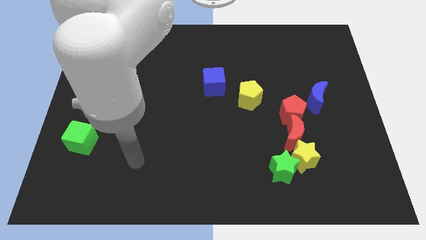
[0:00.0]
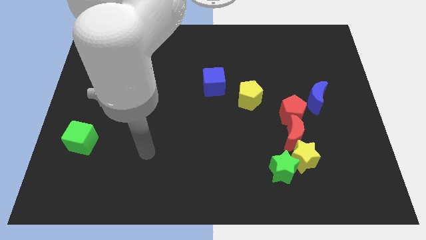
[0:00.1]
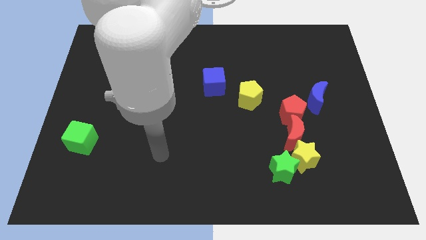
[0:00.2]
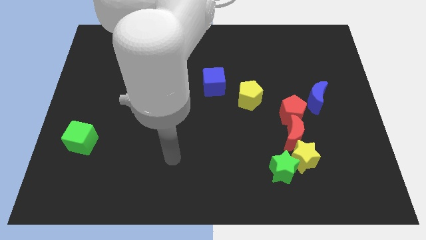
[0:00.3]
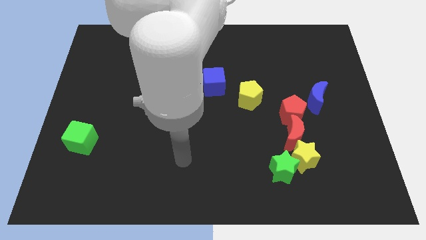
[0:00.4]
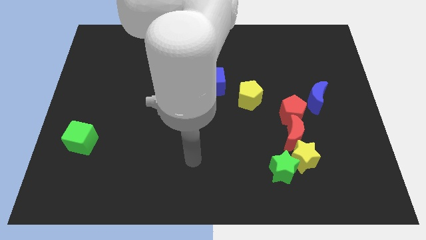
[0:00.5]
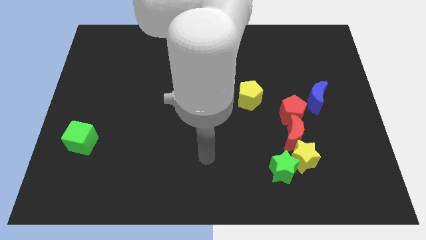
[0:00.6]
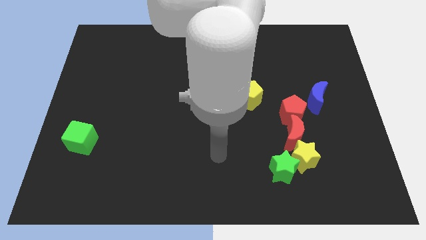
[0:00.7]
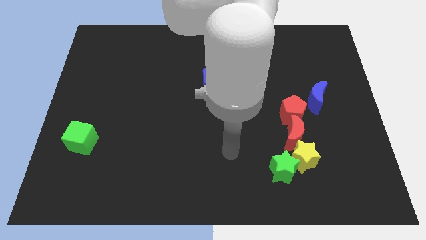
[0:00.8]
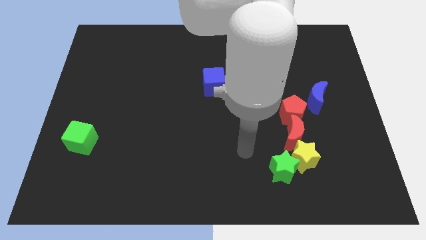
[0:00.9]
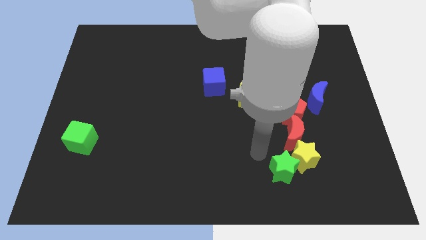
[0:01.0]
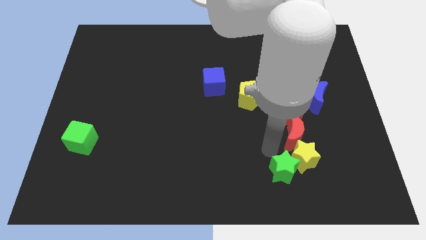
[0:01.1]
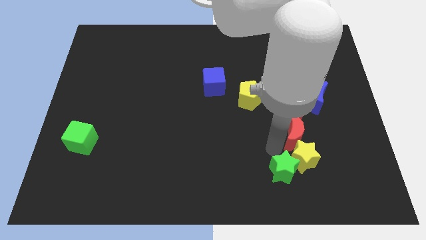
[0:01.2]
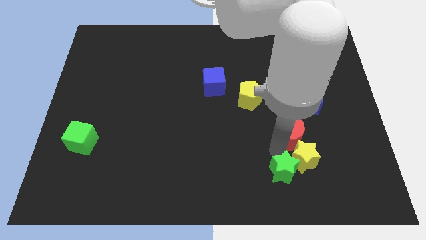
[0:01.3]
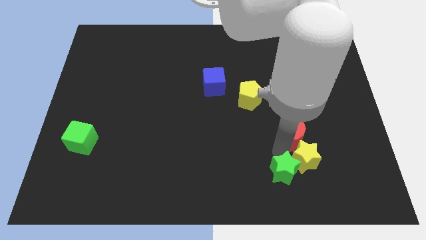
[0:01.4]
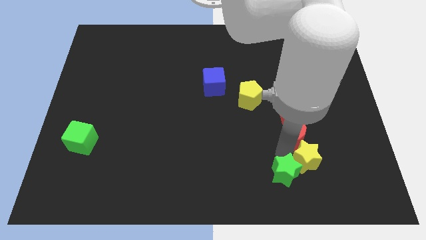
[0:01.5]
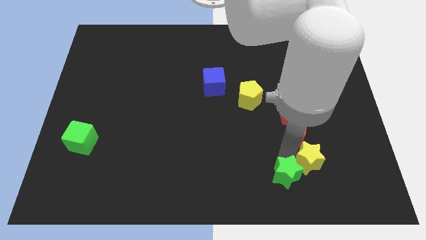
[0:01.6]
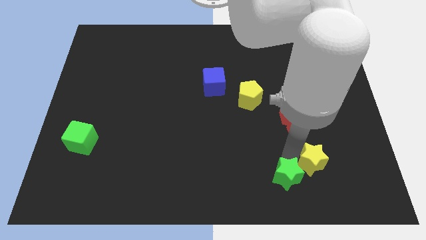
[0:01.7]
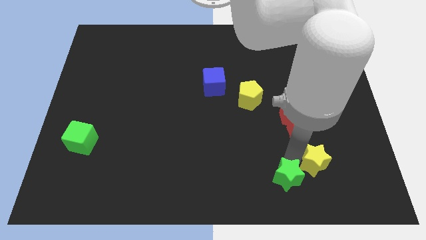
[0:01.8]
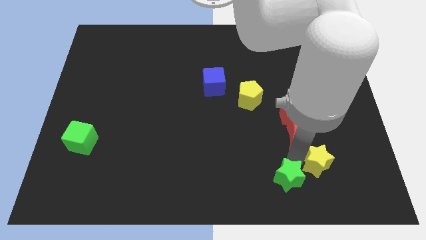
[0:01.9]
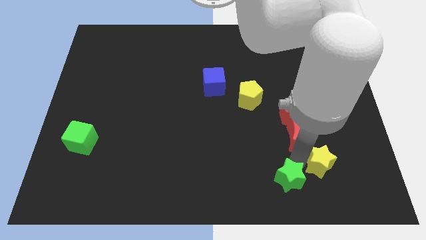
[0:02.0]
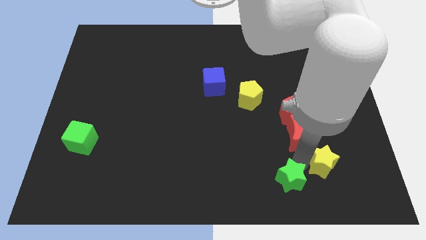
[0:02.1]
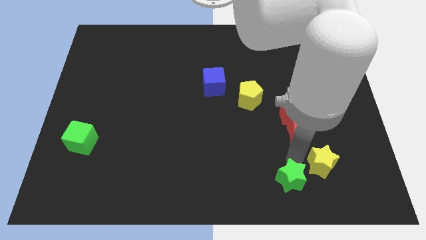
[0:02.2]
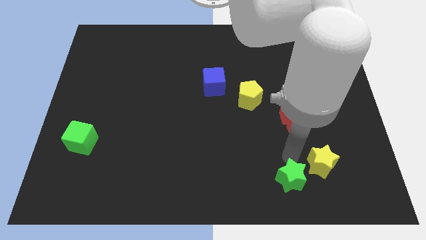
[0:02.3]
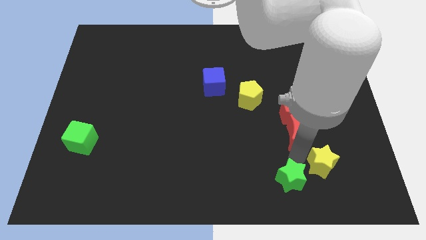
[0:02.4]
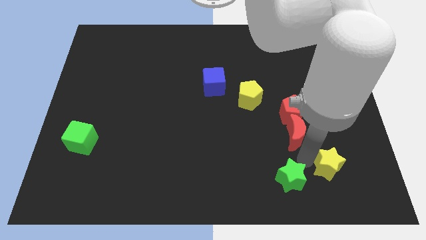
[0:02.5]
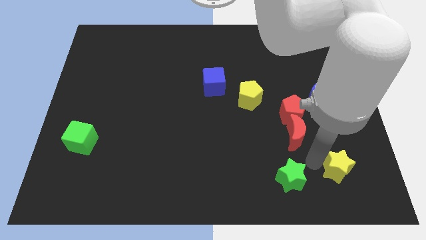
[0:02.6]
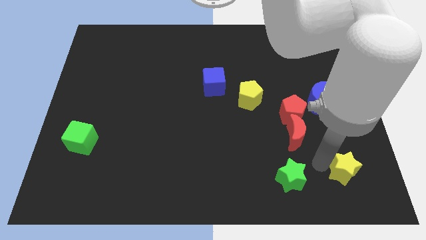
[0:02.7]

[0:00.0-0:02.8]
move the yellow star away from the green star and red moon

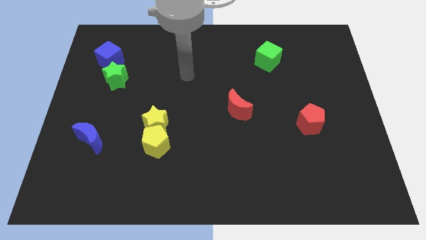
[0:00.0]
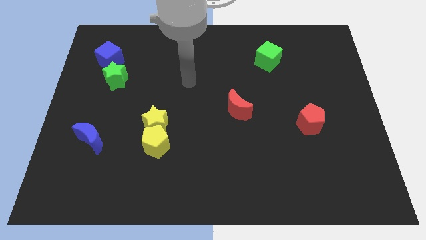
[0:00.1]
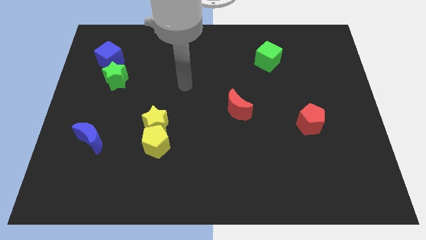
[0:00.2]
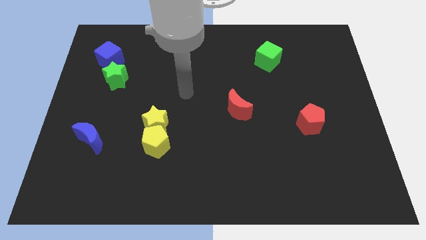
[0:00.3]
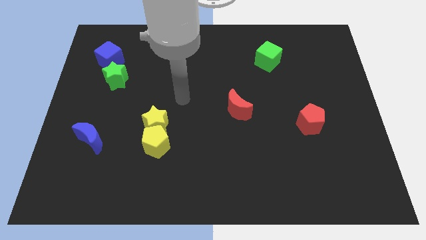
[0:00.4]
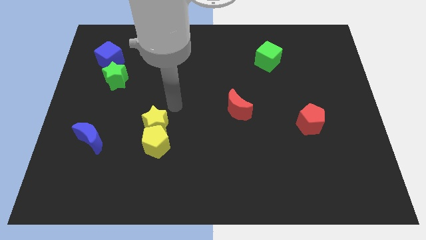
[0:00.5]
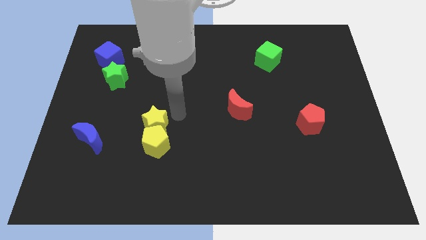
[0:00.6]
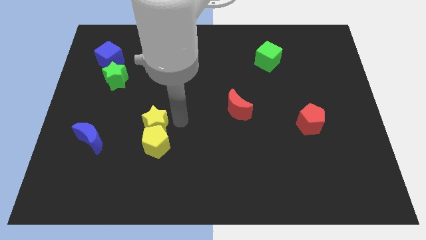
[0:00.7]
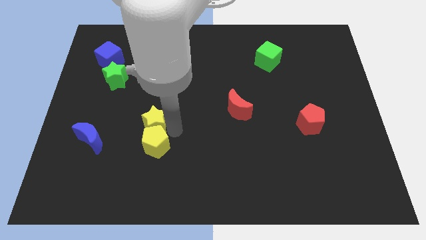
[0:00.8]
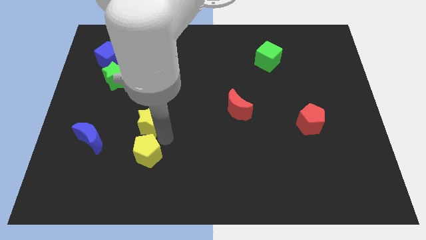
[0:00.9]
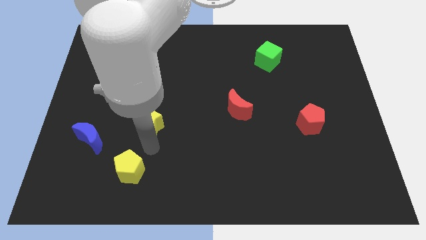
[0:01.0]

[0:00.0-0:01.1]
move the yellow star away from the yellow pentagon

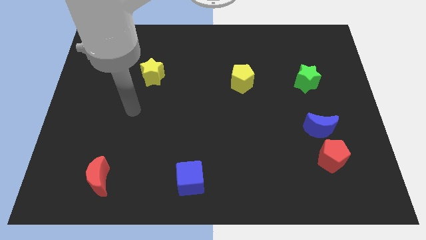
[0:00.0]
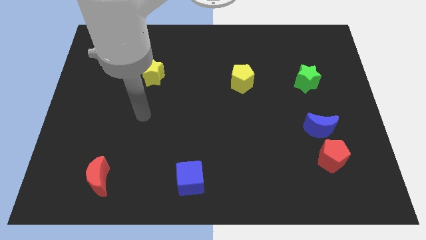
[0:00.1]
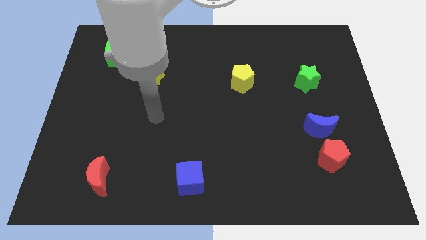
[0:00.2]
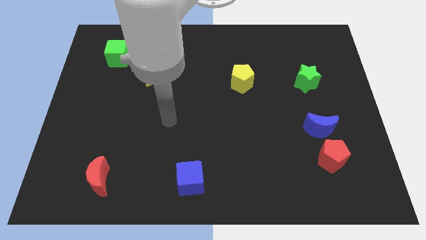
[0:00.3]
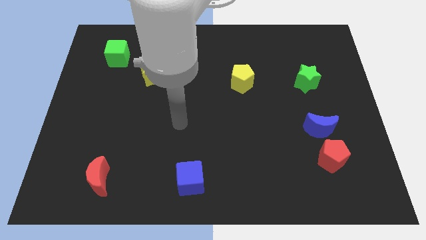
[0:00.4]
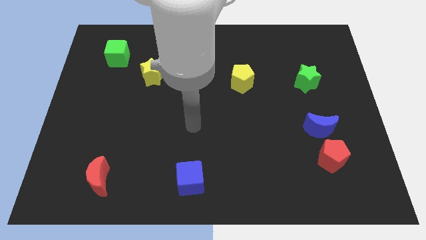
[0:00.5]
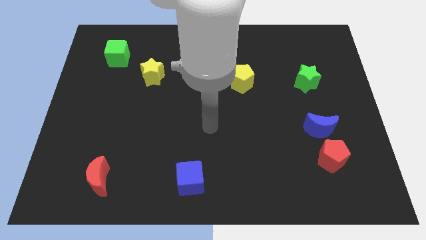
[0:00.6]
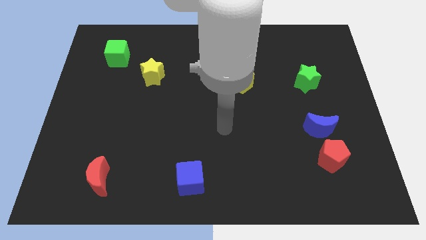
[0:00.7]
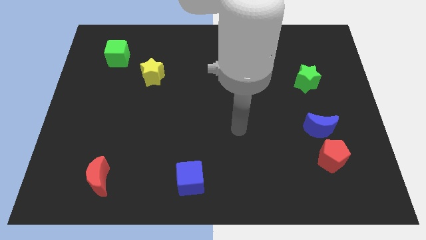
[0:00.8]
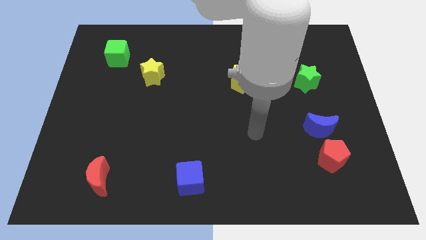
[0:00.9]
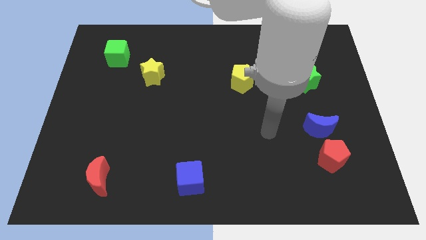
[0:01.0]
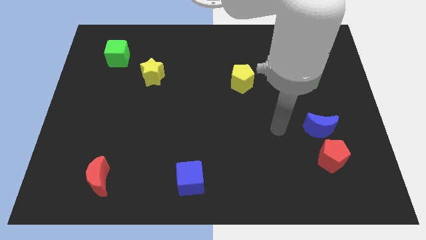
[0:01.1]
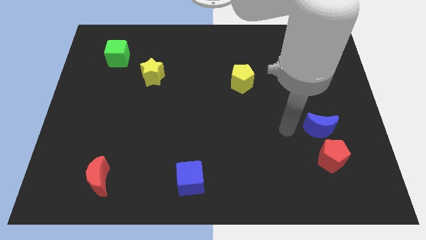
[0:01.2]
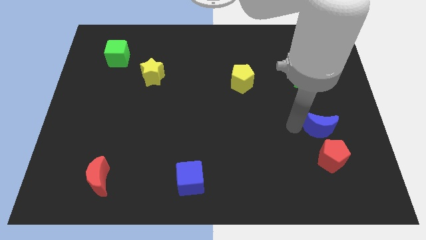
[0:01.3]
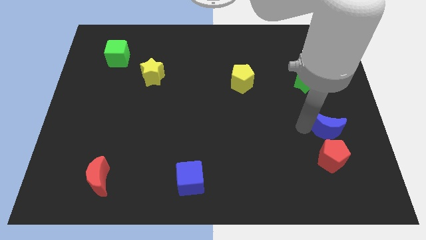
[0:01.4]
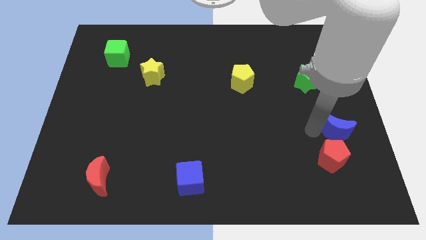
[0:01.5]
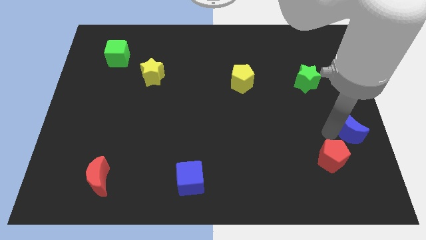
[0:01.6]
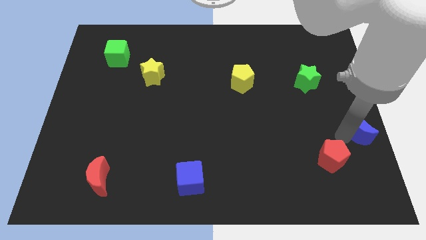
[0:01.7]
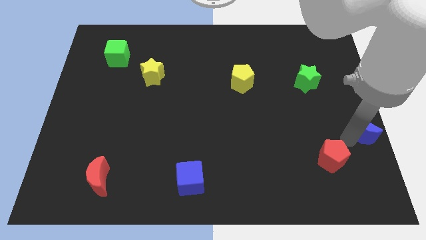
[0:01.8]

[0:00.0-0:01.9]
pull the red pentagon apart from the blue moon

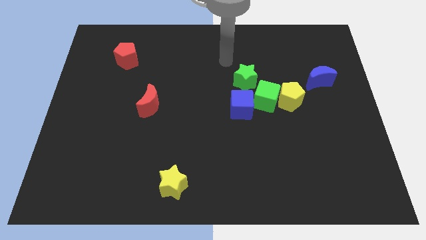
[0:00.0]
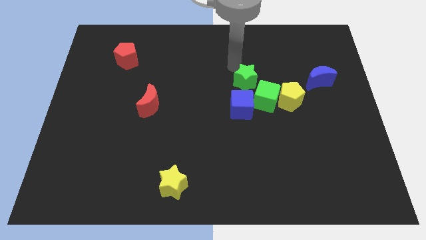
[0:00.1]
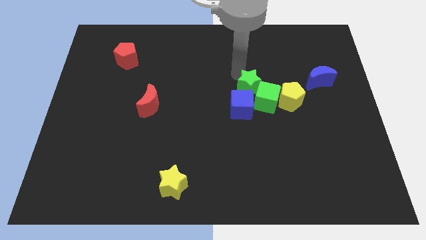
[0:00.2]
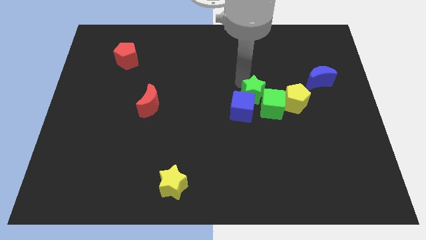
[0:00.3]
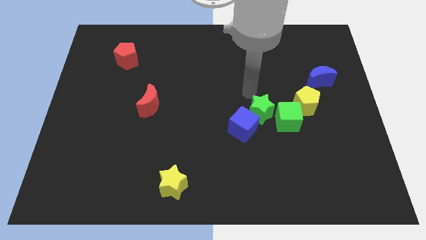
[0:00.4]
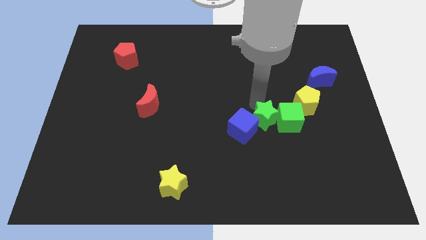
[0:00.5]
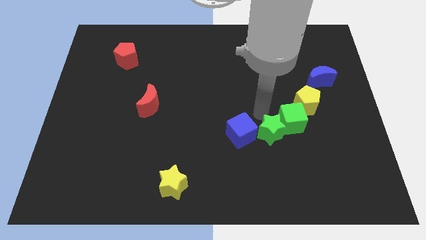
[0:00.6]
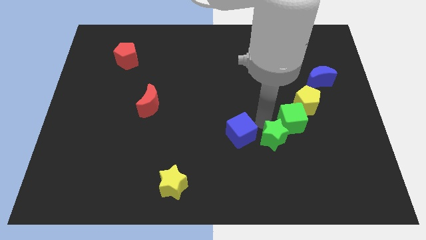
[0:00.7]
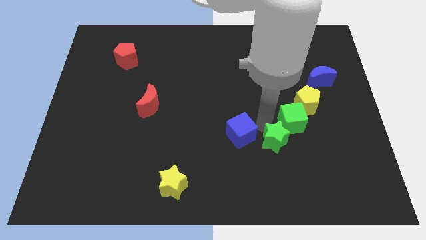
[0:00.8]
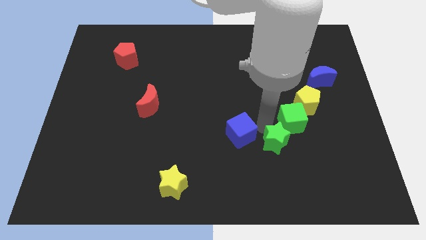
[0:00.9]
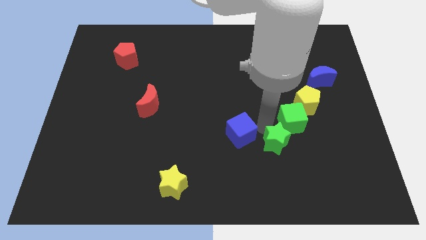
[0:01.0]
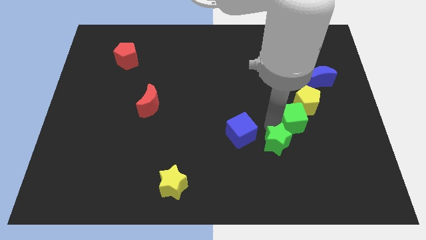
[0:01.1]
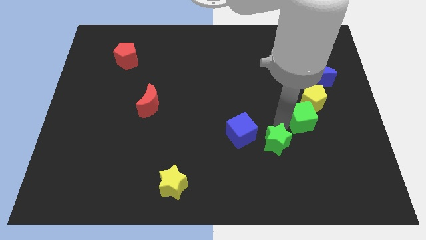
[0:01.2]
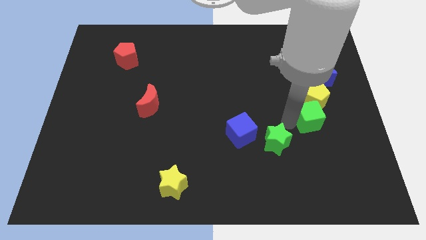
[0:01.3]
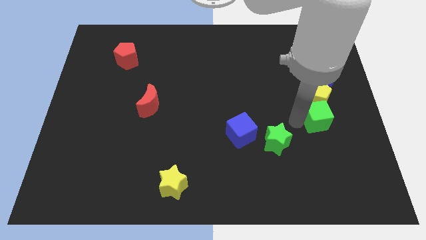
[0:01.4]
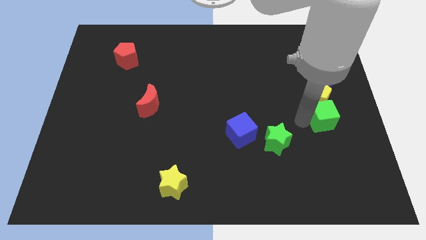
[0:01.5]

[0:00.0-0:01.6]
separate the green cube from the yellow pentagon, blue cube, and green star

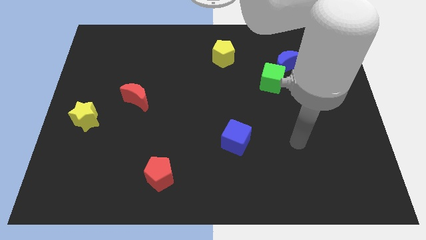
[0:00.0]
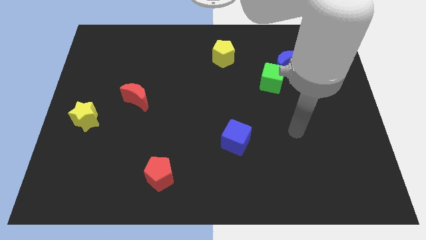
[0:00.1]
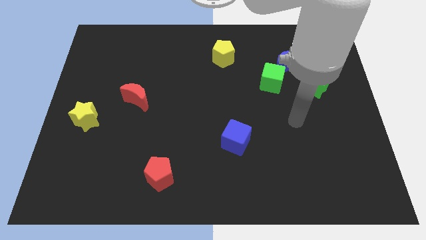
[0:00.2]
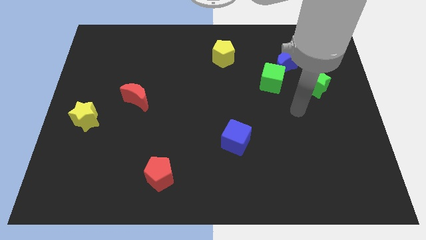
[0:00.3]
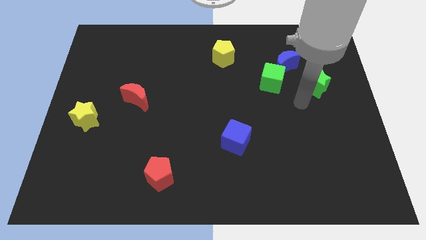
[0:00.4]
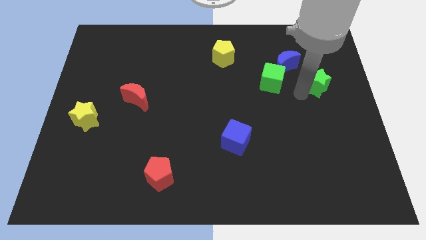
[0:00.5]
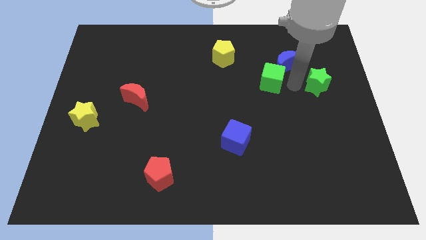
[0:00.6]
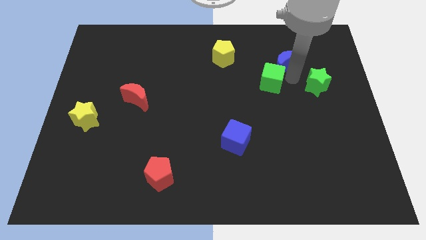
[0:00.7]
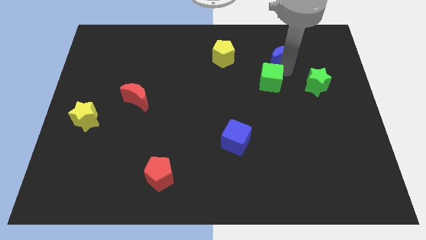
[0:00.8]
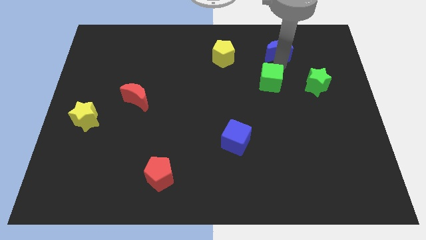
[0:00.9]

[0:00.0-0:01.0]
move the green cube away from the blue moon

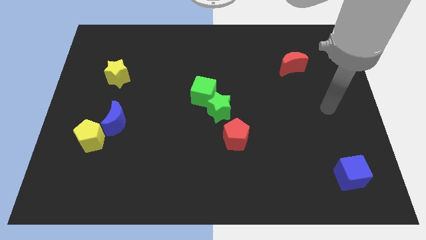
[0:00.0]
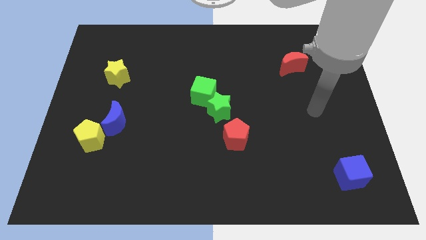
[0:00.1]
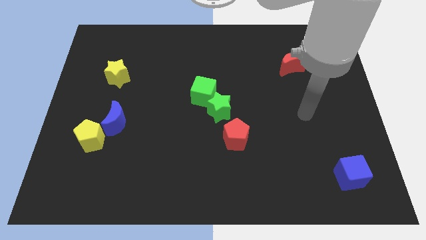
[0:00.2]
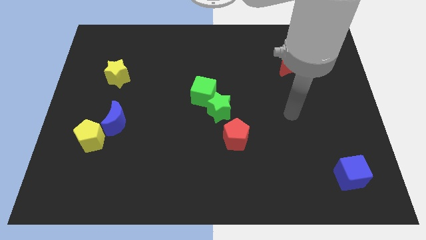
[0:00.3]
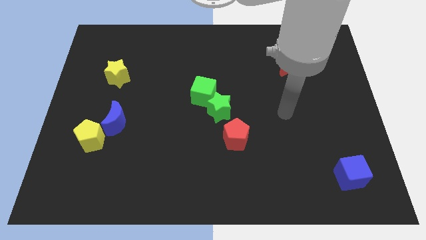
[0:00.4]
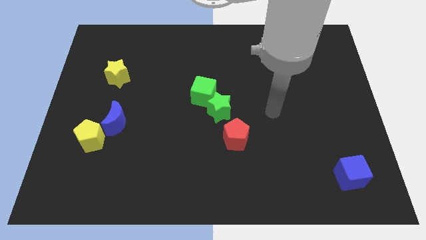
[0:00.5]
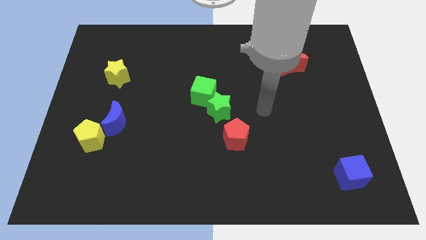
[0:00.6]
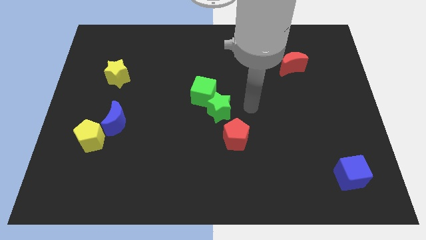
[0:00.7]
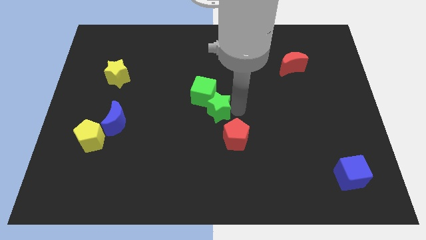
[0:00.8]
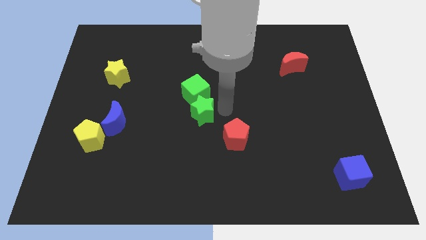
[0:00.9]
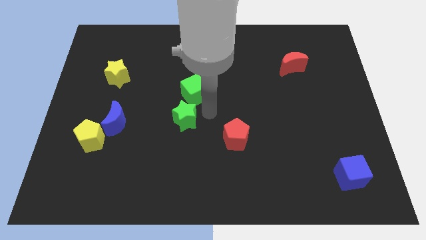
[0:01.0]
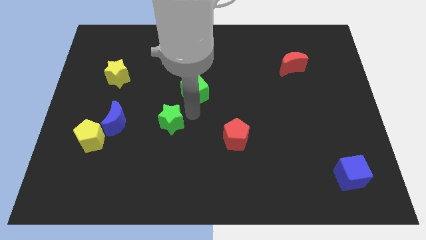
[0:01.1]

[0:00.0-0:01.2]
move the green cube away from the green star
